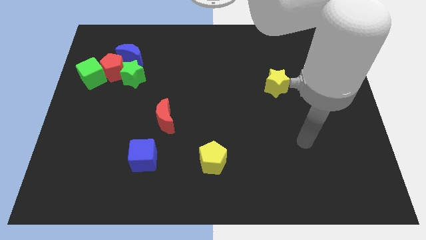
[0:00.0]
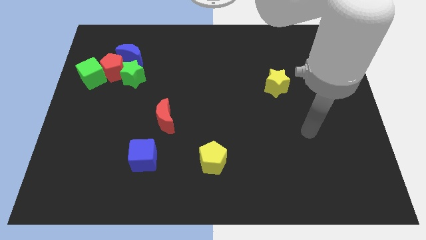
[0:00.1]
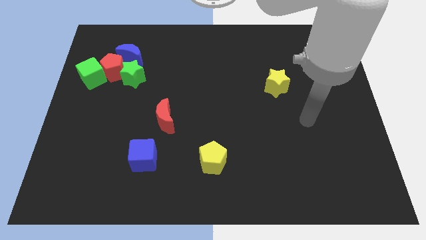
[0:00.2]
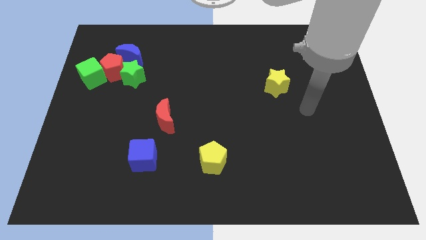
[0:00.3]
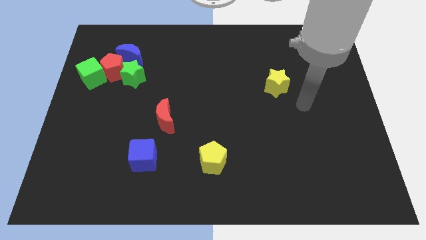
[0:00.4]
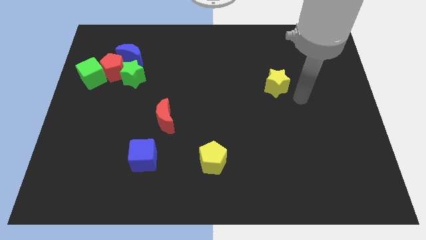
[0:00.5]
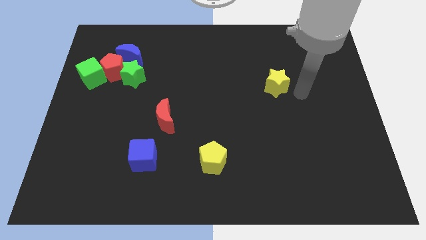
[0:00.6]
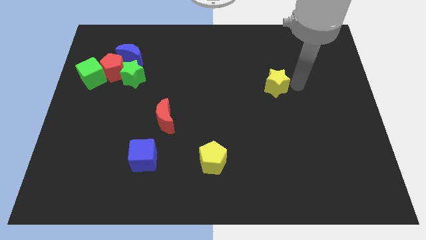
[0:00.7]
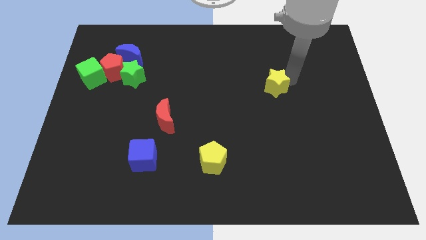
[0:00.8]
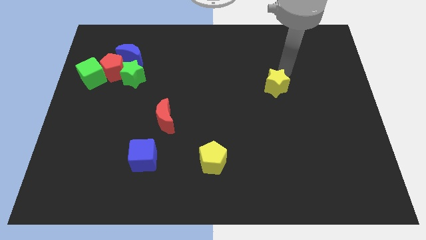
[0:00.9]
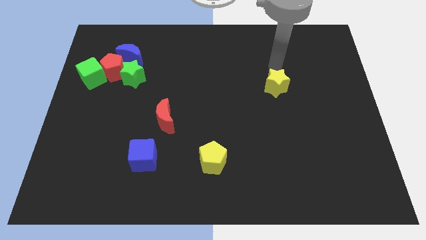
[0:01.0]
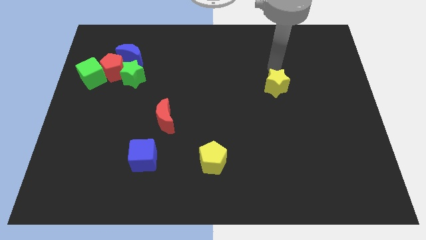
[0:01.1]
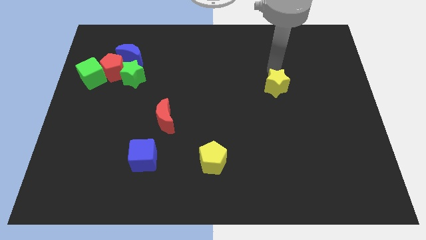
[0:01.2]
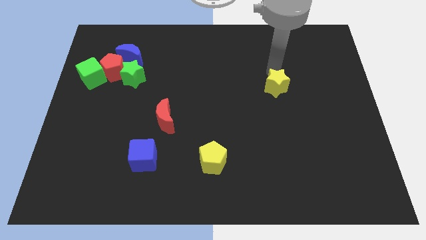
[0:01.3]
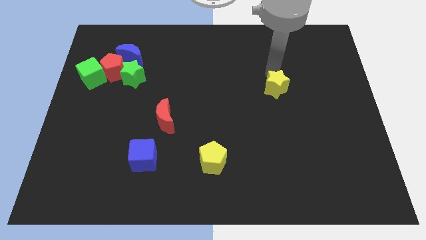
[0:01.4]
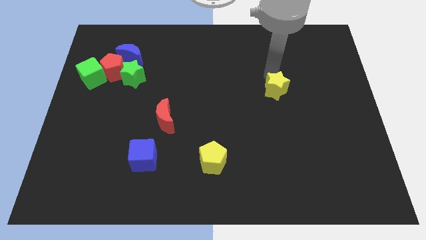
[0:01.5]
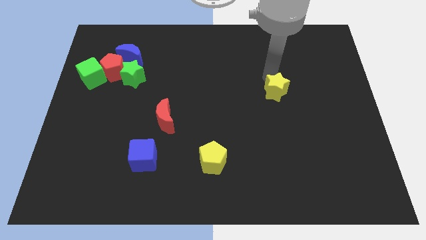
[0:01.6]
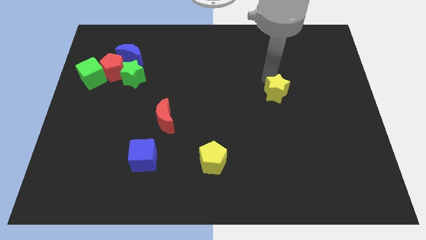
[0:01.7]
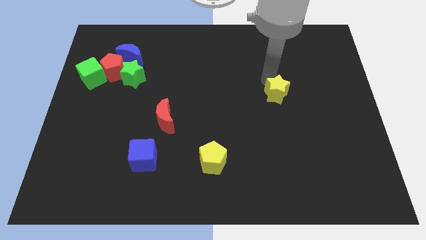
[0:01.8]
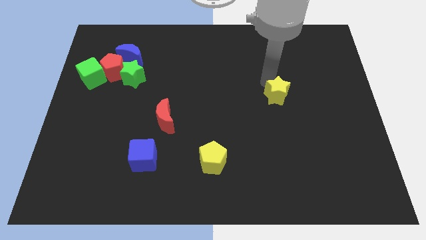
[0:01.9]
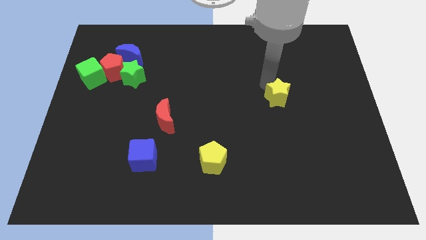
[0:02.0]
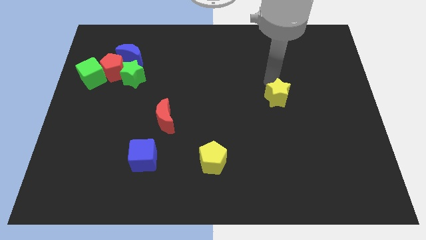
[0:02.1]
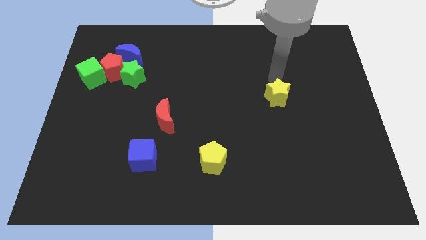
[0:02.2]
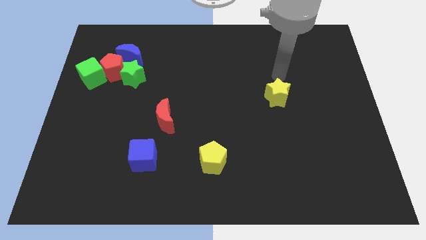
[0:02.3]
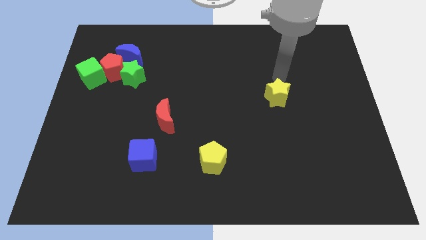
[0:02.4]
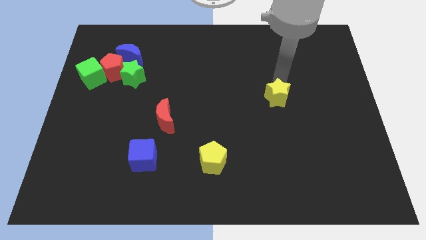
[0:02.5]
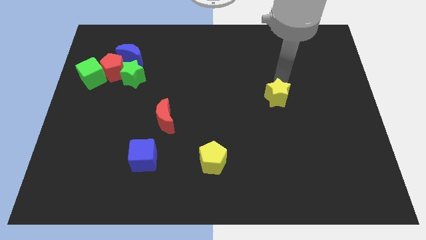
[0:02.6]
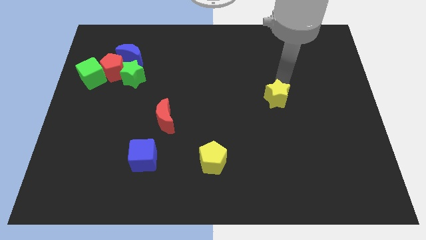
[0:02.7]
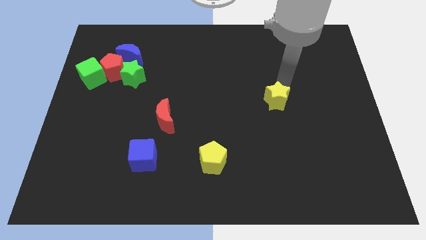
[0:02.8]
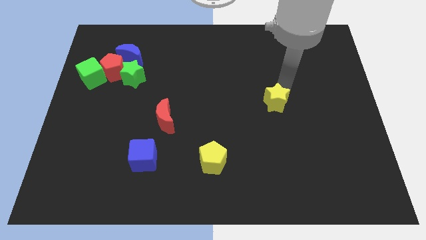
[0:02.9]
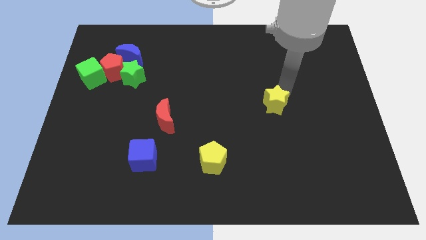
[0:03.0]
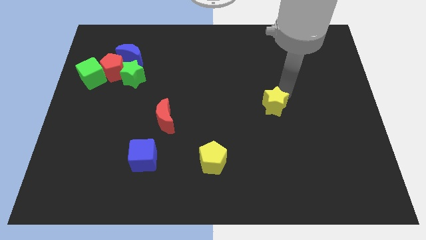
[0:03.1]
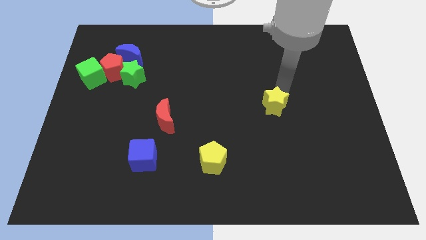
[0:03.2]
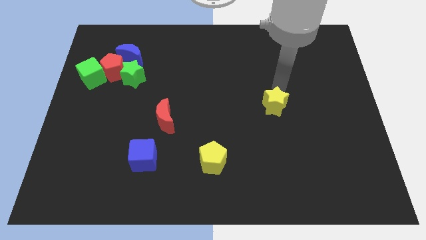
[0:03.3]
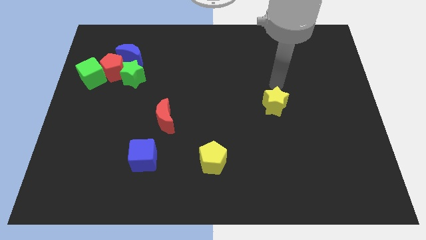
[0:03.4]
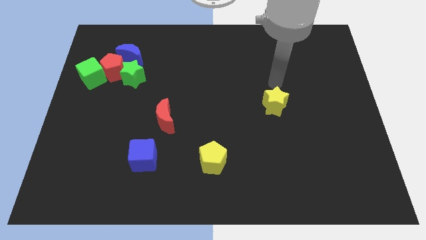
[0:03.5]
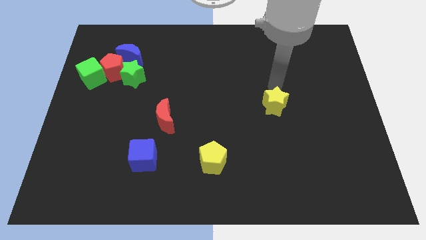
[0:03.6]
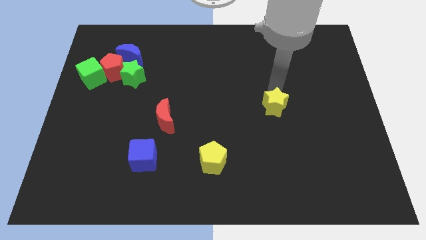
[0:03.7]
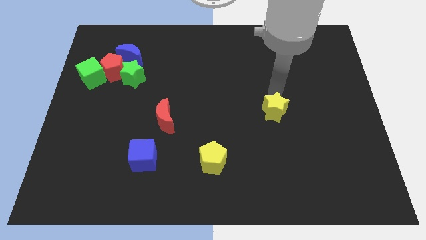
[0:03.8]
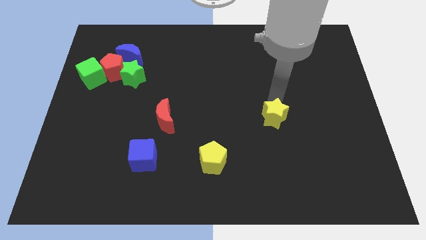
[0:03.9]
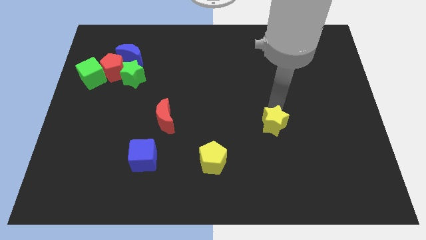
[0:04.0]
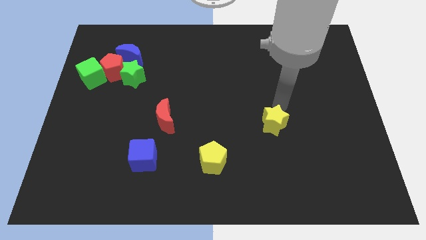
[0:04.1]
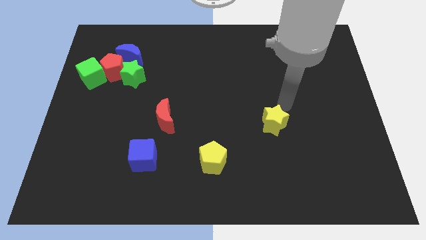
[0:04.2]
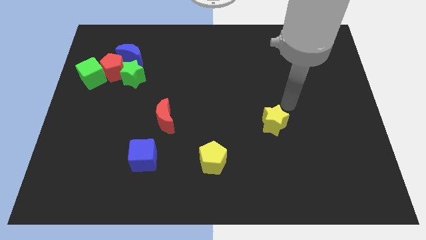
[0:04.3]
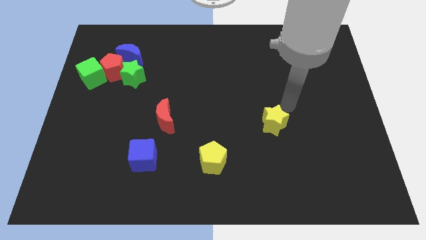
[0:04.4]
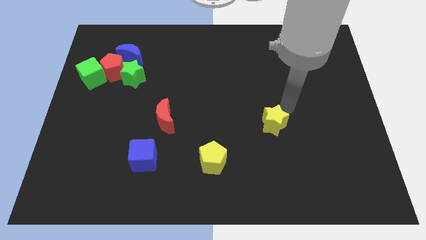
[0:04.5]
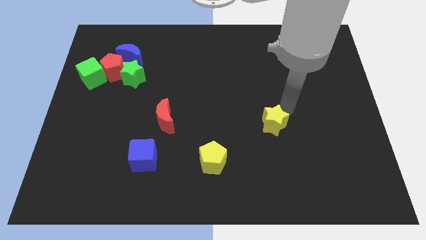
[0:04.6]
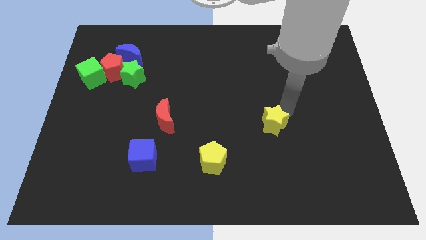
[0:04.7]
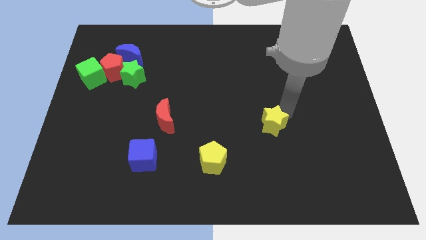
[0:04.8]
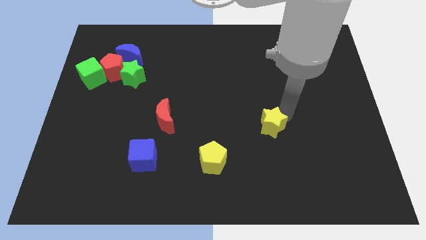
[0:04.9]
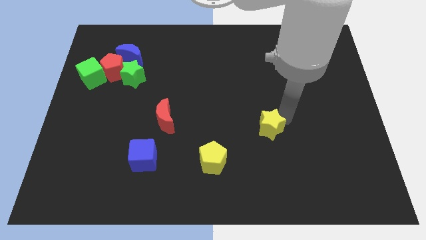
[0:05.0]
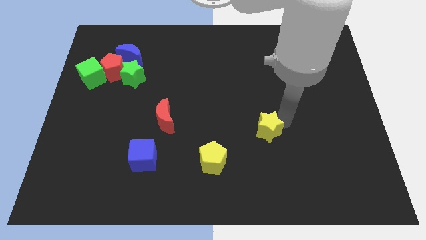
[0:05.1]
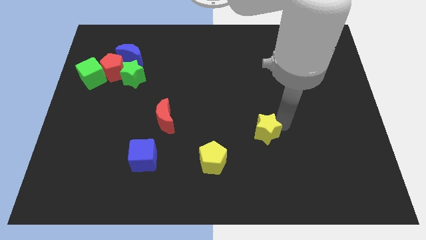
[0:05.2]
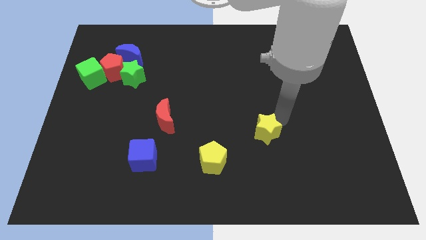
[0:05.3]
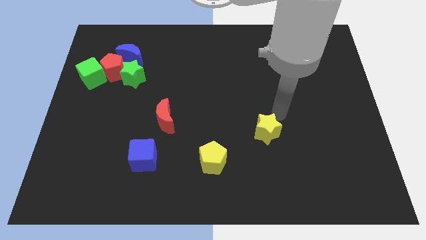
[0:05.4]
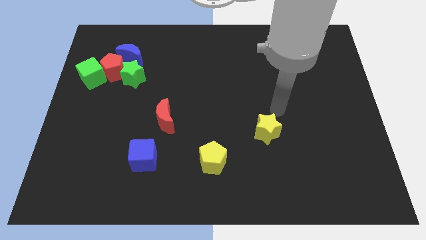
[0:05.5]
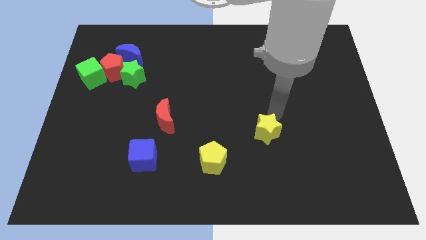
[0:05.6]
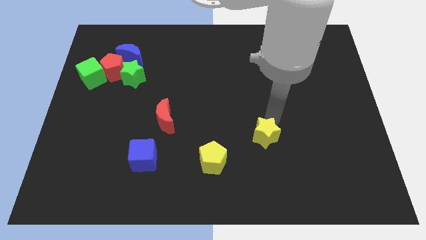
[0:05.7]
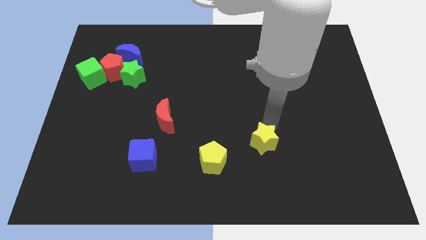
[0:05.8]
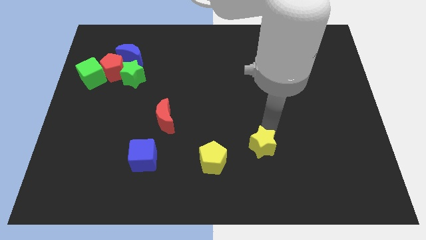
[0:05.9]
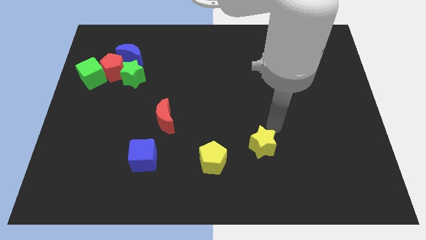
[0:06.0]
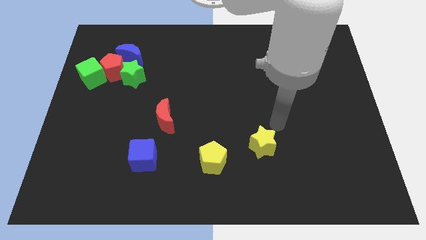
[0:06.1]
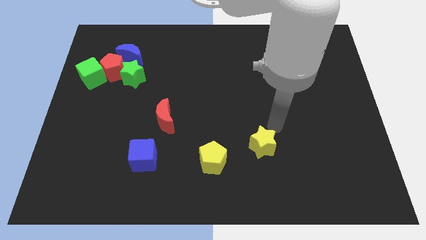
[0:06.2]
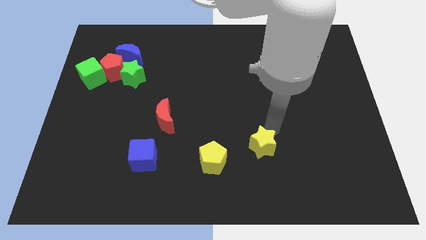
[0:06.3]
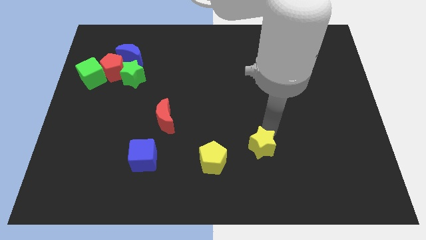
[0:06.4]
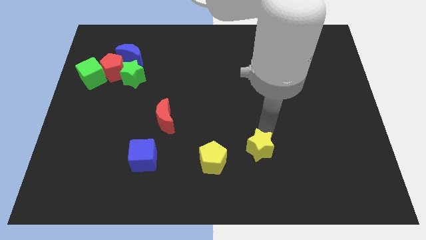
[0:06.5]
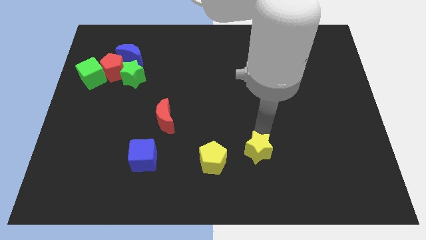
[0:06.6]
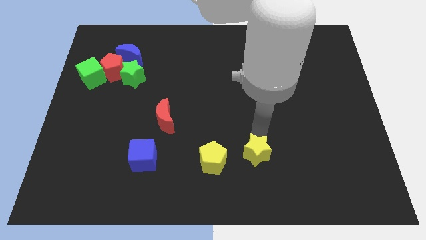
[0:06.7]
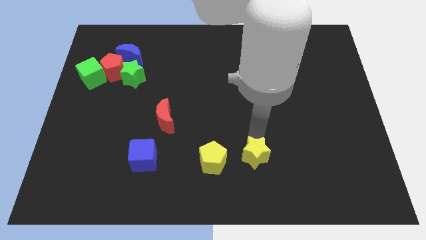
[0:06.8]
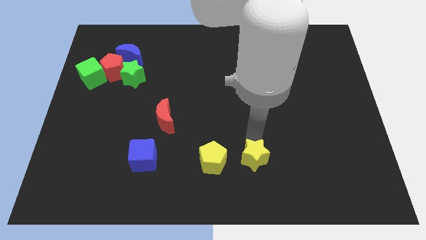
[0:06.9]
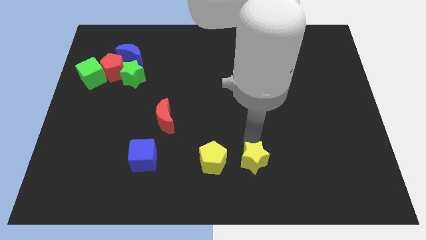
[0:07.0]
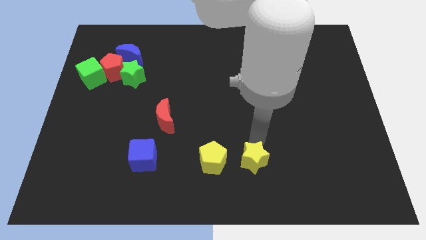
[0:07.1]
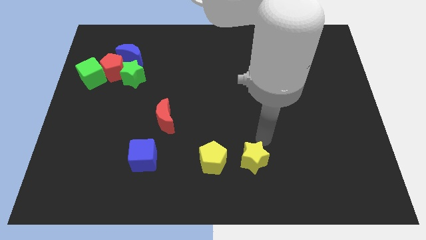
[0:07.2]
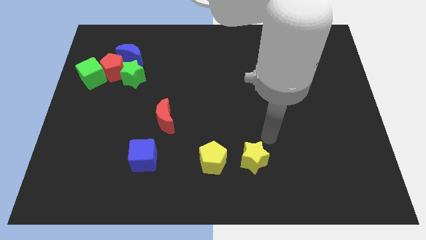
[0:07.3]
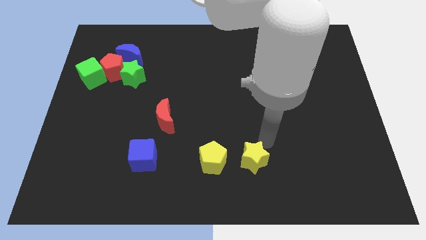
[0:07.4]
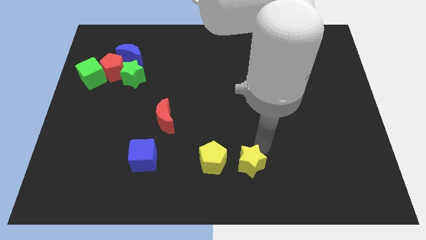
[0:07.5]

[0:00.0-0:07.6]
put the yellow star to the bottom side
